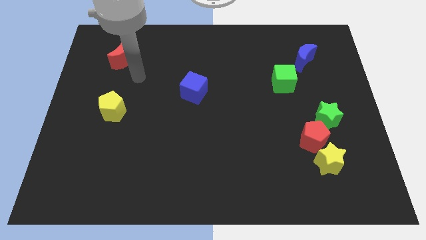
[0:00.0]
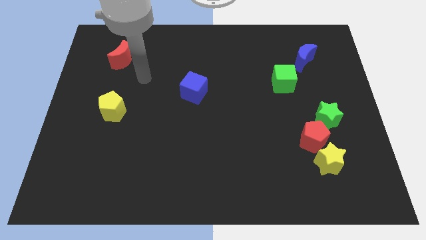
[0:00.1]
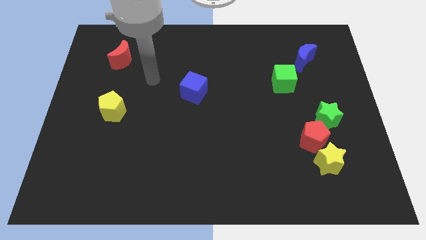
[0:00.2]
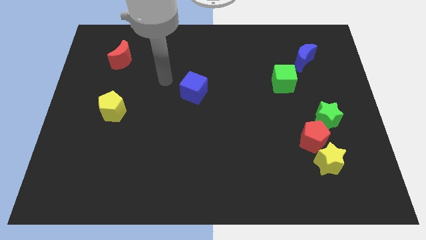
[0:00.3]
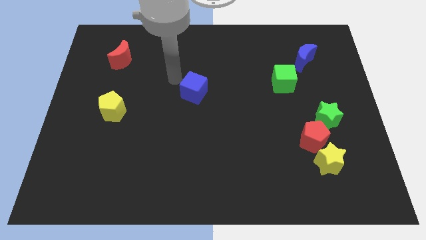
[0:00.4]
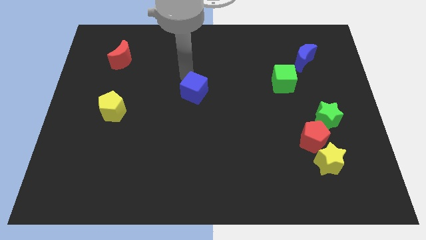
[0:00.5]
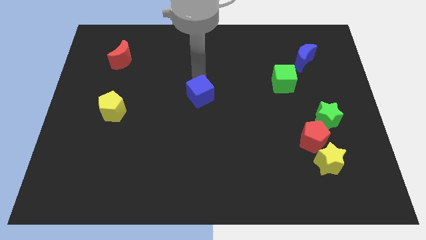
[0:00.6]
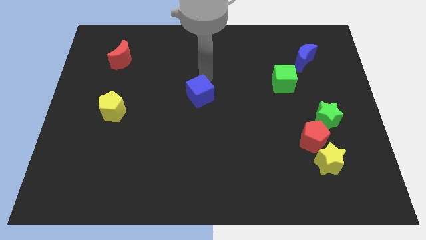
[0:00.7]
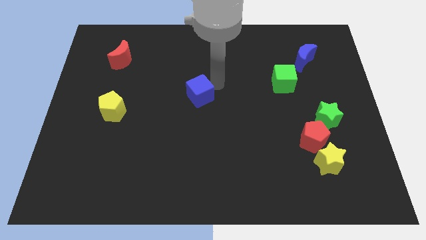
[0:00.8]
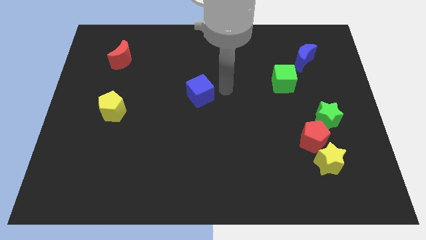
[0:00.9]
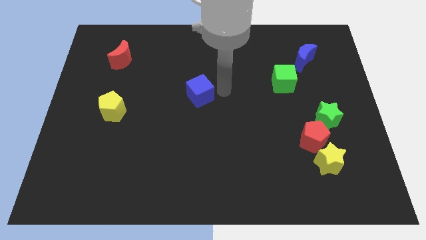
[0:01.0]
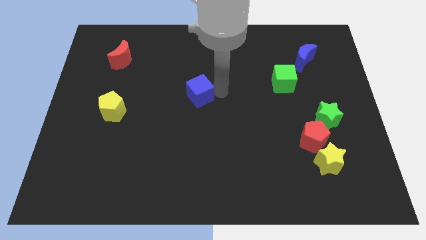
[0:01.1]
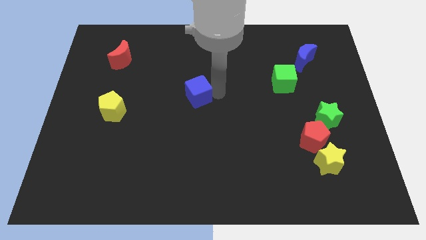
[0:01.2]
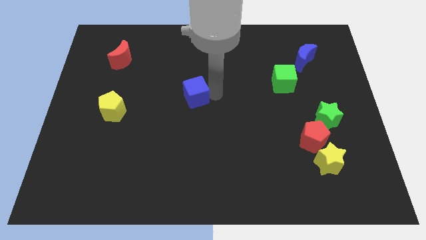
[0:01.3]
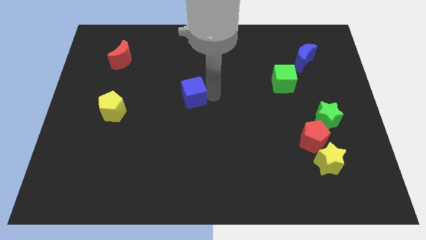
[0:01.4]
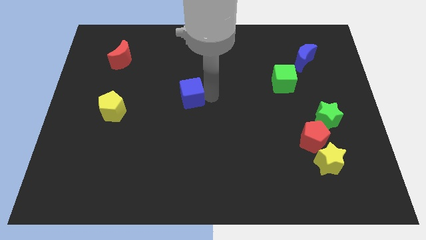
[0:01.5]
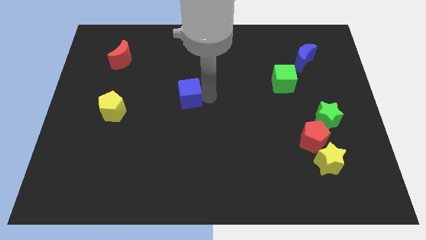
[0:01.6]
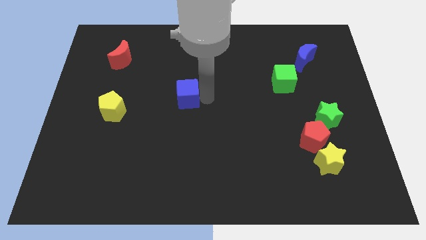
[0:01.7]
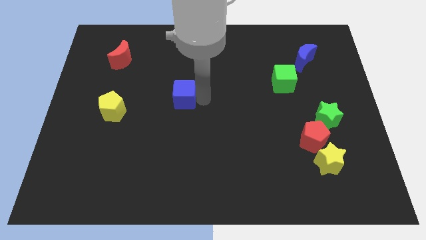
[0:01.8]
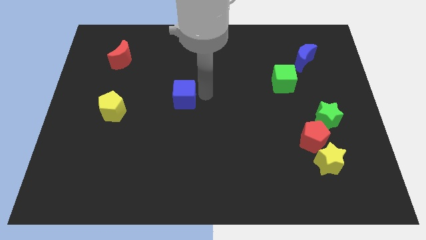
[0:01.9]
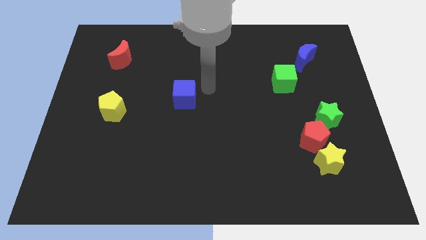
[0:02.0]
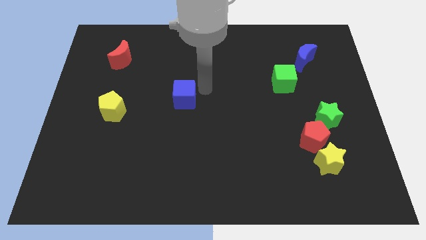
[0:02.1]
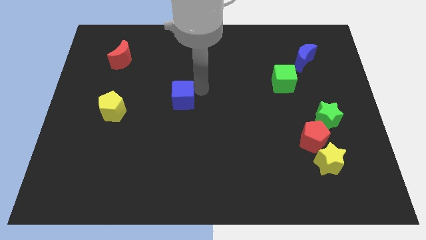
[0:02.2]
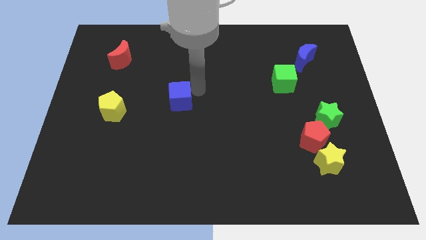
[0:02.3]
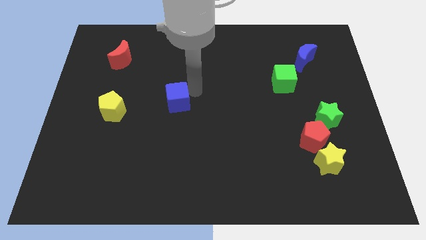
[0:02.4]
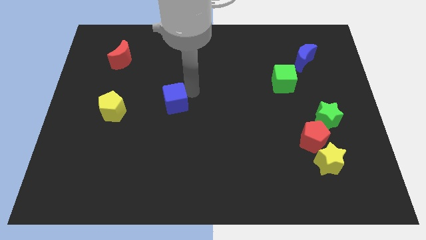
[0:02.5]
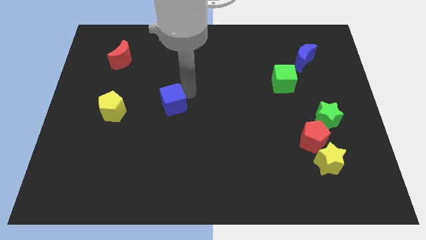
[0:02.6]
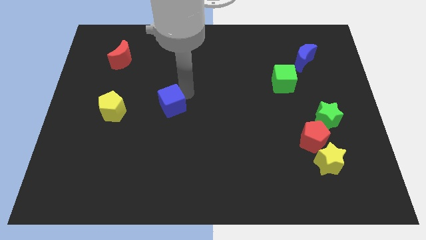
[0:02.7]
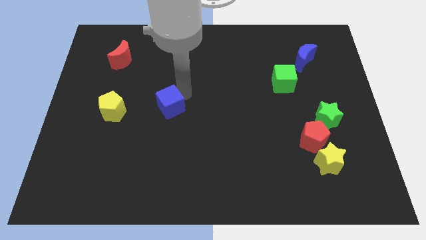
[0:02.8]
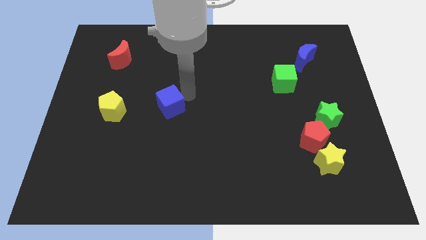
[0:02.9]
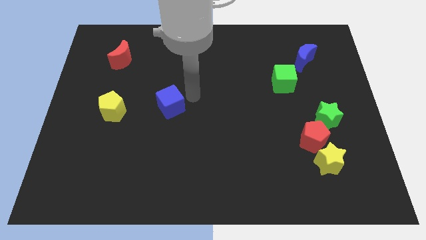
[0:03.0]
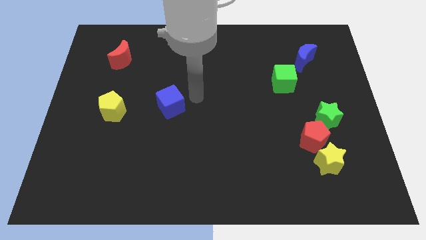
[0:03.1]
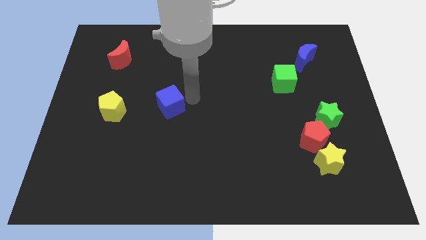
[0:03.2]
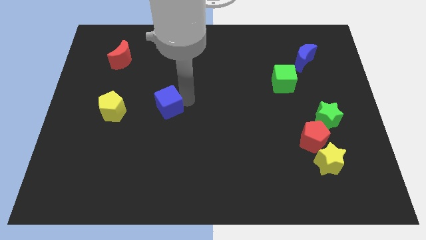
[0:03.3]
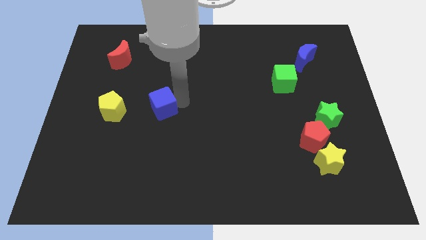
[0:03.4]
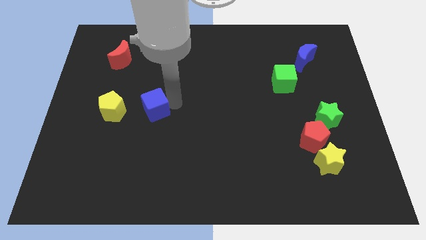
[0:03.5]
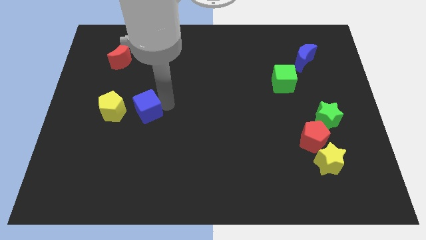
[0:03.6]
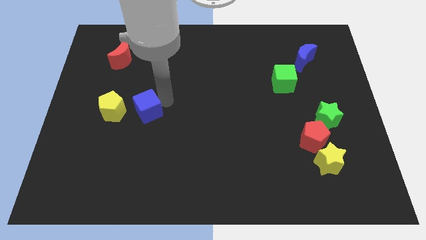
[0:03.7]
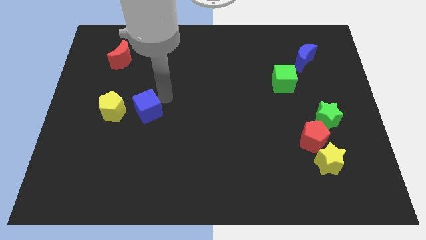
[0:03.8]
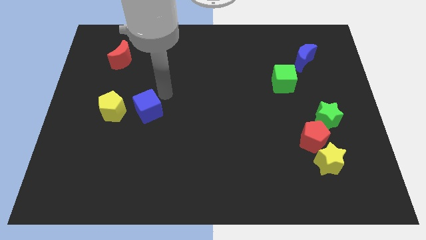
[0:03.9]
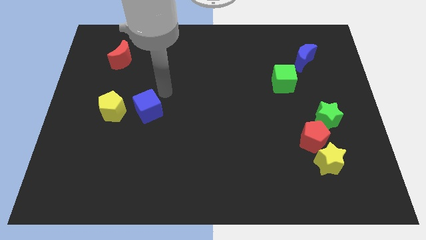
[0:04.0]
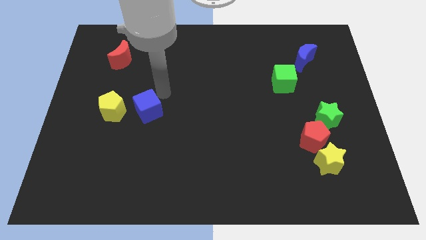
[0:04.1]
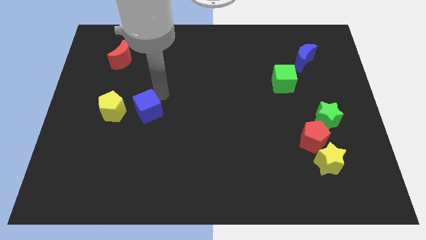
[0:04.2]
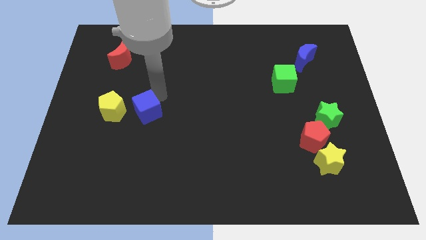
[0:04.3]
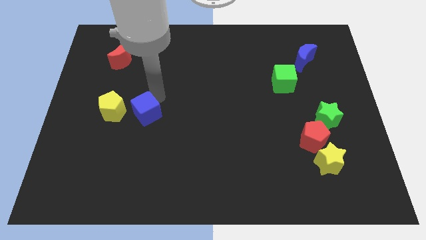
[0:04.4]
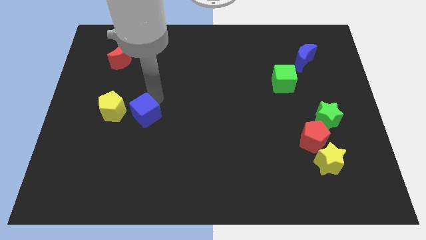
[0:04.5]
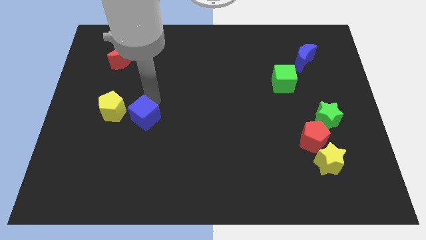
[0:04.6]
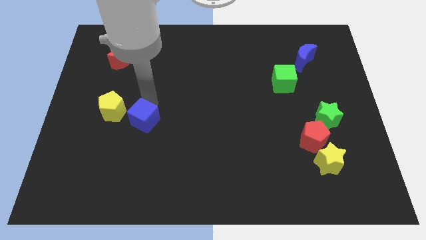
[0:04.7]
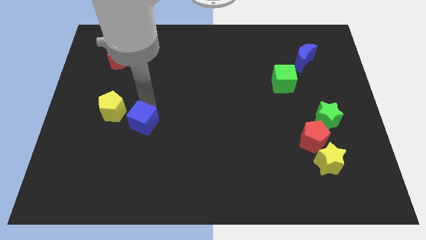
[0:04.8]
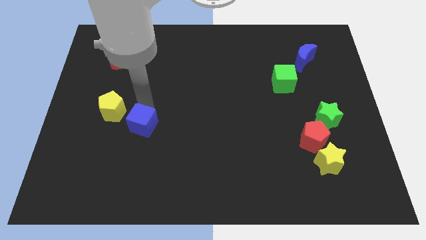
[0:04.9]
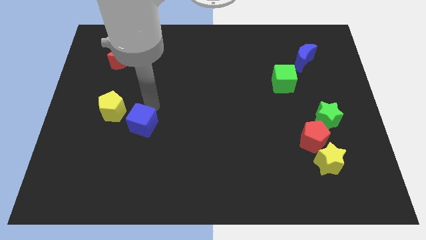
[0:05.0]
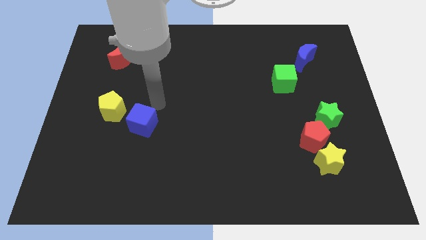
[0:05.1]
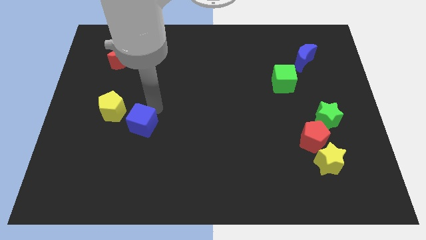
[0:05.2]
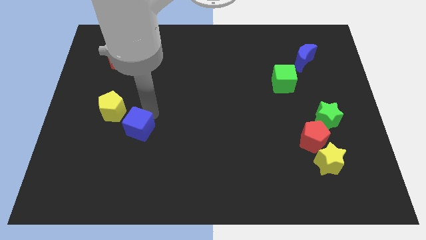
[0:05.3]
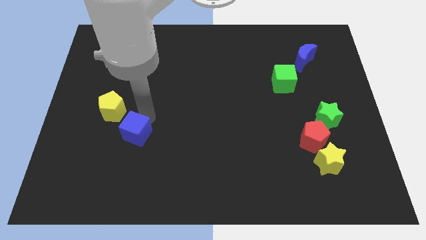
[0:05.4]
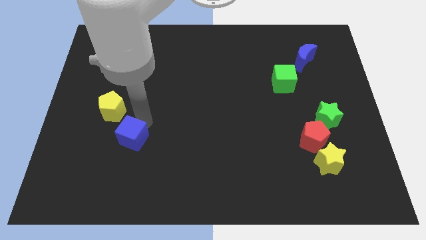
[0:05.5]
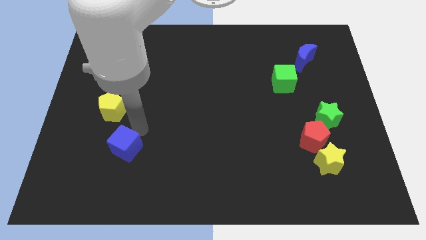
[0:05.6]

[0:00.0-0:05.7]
move the blue cube down and then left

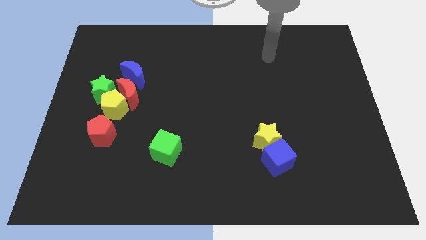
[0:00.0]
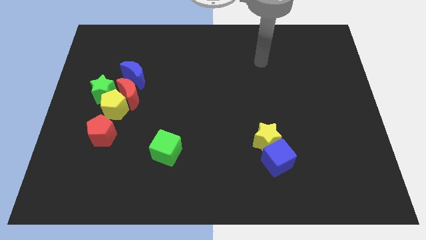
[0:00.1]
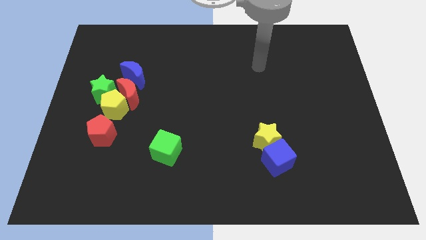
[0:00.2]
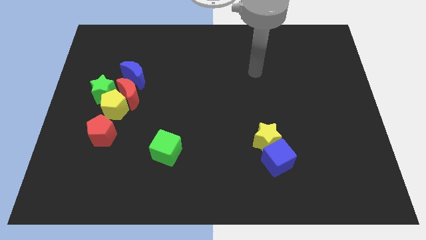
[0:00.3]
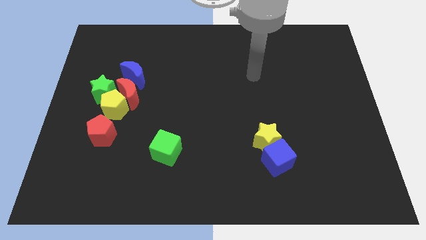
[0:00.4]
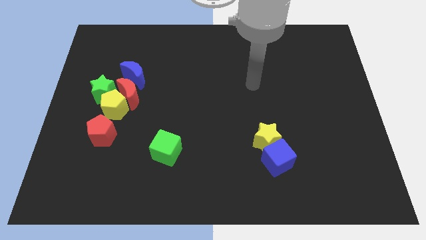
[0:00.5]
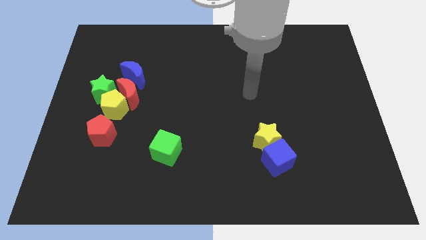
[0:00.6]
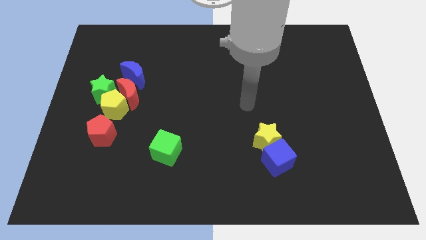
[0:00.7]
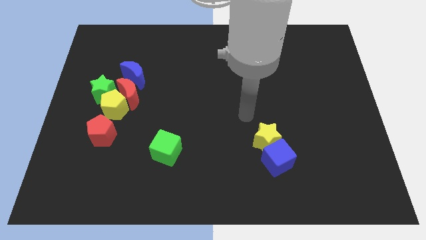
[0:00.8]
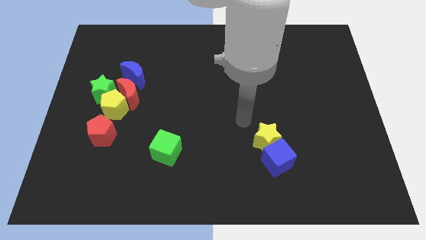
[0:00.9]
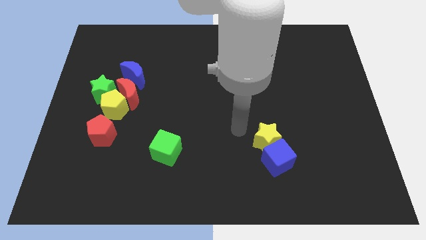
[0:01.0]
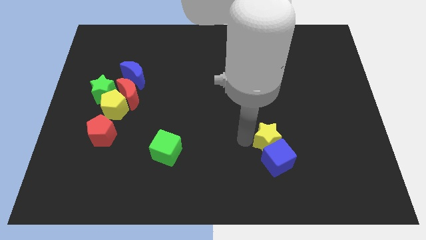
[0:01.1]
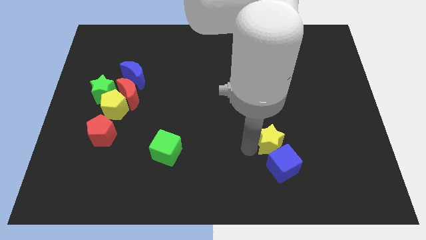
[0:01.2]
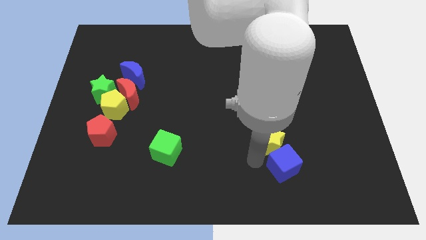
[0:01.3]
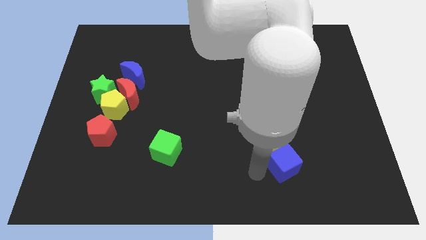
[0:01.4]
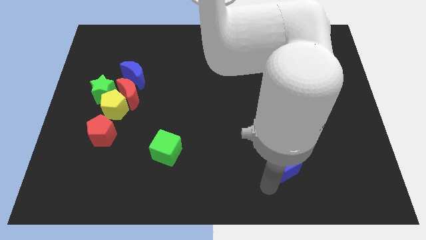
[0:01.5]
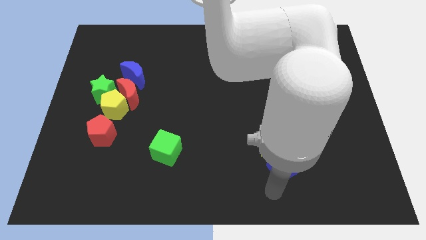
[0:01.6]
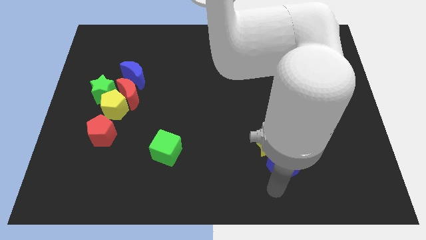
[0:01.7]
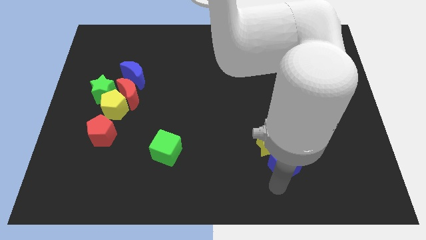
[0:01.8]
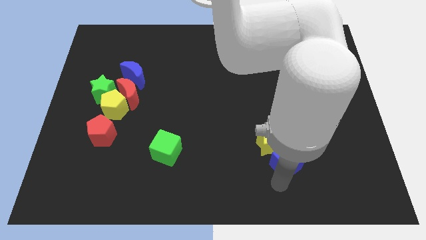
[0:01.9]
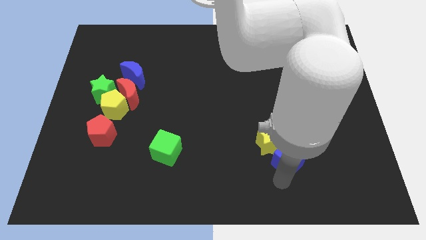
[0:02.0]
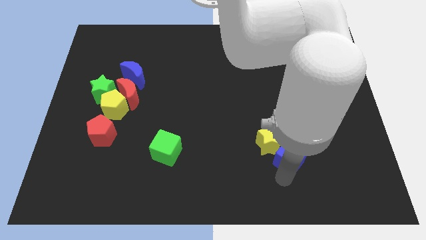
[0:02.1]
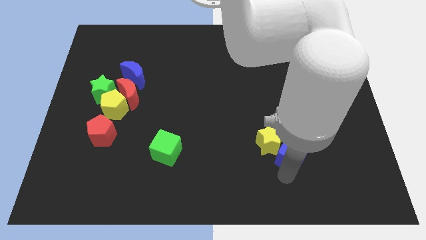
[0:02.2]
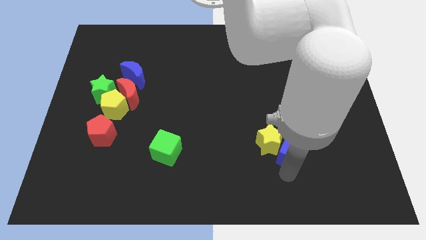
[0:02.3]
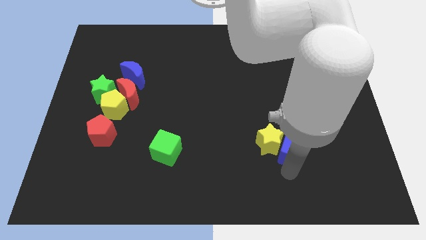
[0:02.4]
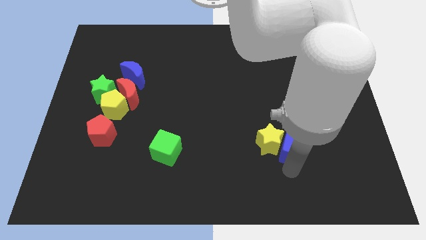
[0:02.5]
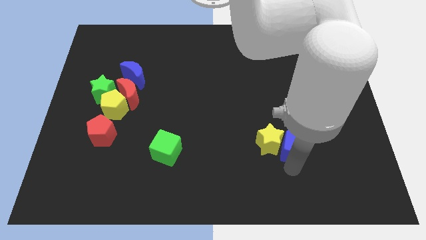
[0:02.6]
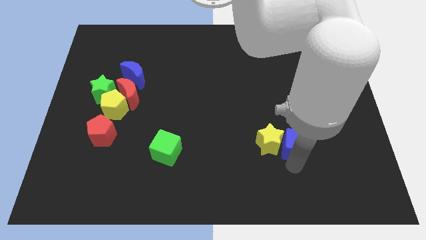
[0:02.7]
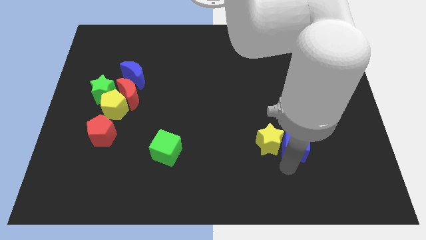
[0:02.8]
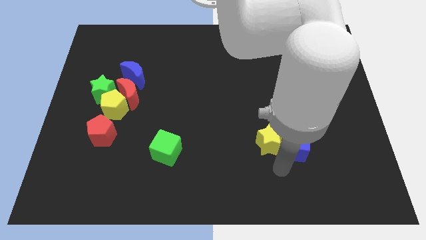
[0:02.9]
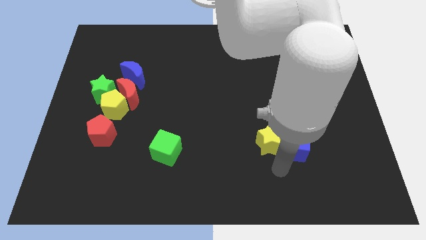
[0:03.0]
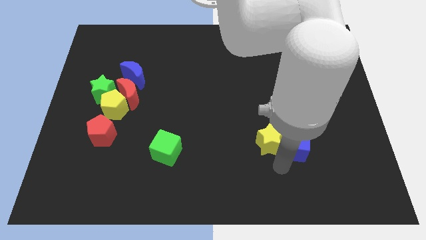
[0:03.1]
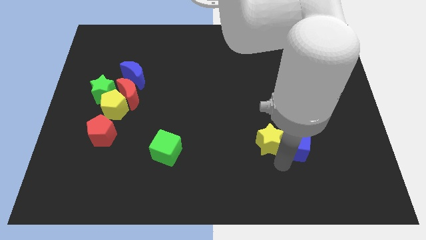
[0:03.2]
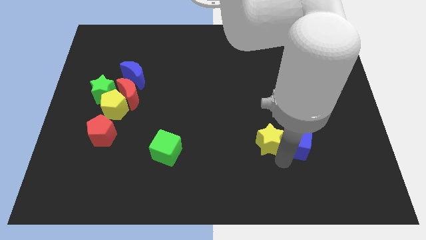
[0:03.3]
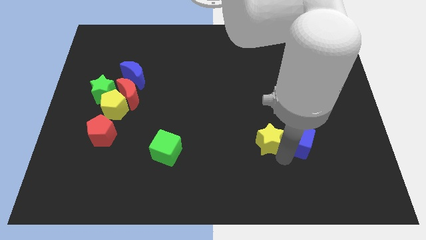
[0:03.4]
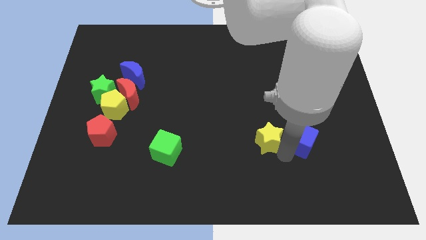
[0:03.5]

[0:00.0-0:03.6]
slide the blue cube a little upwards and to the right
